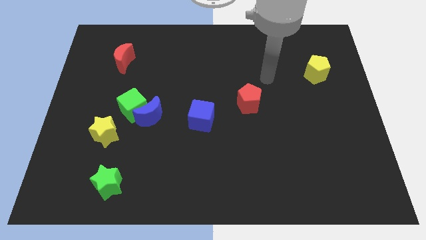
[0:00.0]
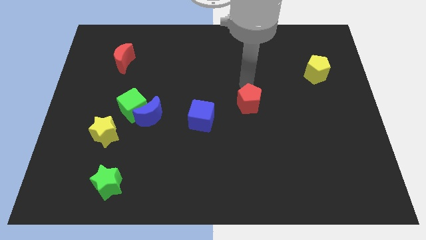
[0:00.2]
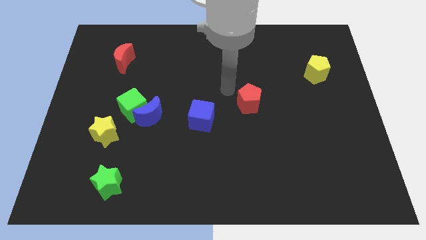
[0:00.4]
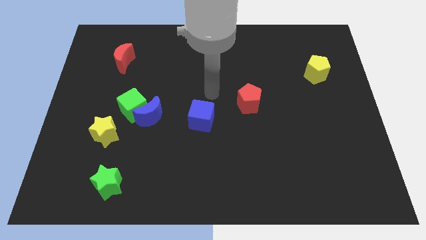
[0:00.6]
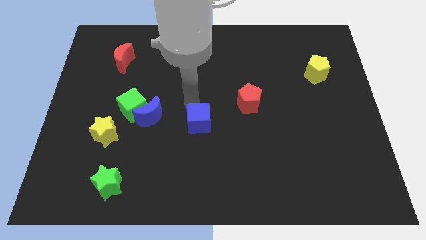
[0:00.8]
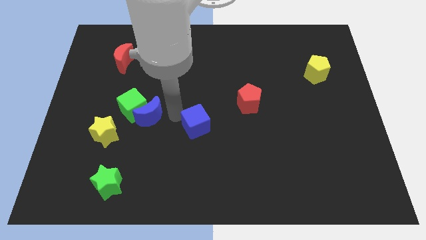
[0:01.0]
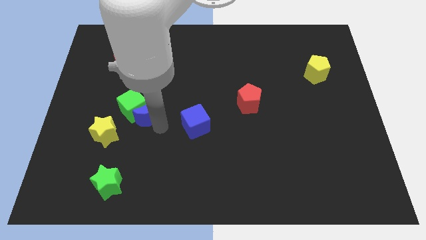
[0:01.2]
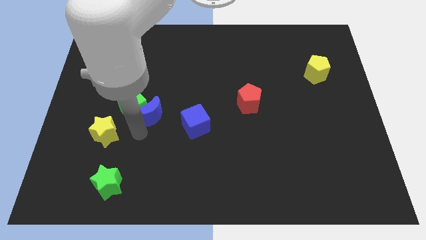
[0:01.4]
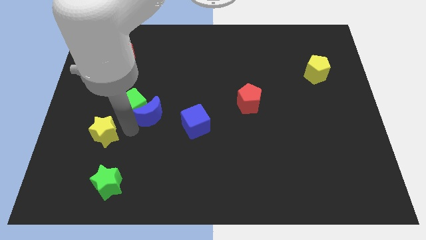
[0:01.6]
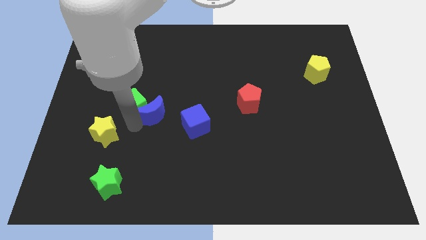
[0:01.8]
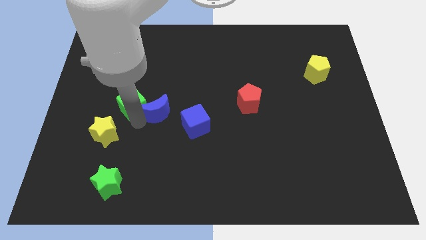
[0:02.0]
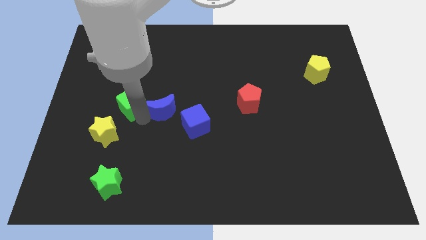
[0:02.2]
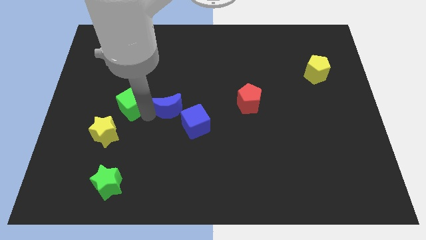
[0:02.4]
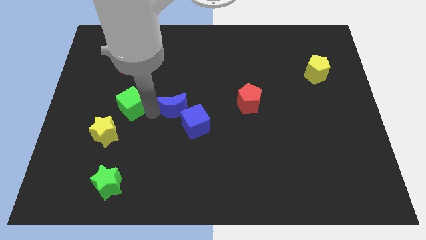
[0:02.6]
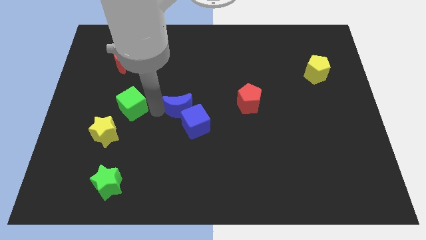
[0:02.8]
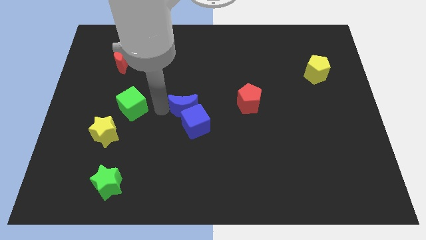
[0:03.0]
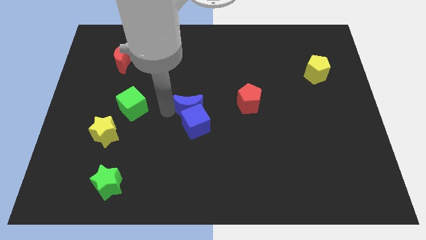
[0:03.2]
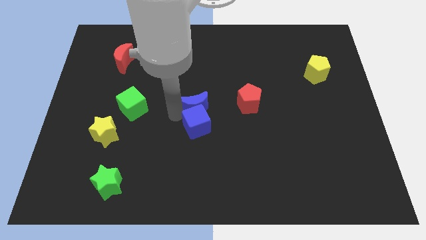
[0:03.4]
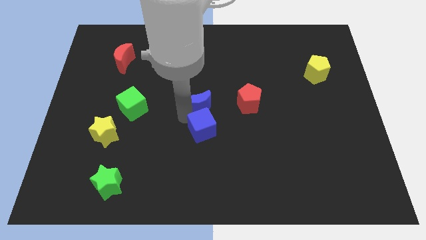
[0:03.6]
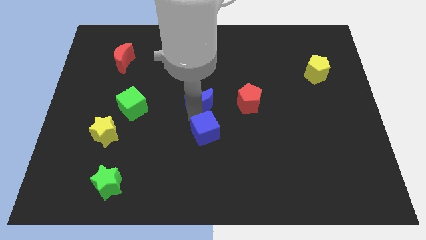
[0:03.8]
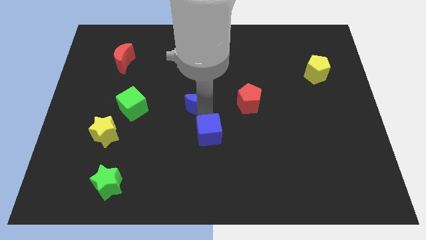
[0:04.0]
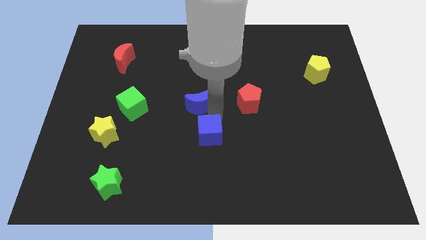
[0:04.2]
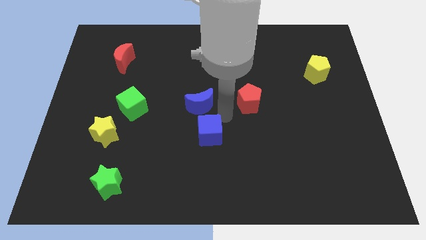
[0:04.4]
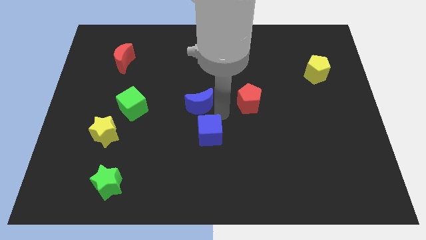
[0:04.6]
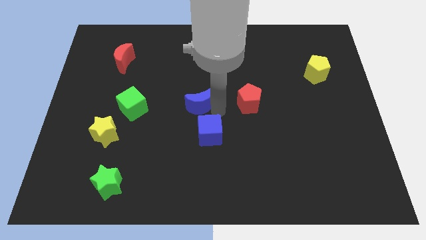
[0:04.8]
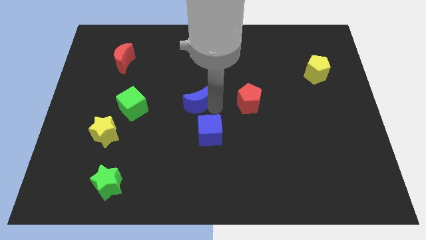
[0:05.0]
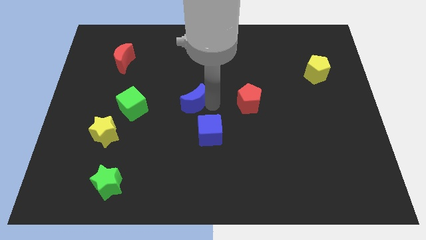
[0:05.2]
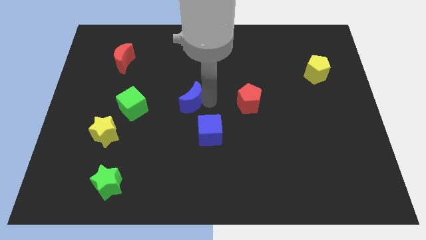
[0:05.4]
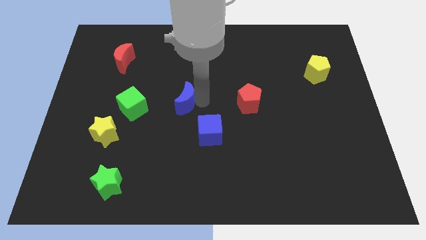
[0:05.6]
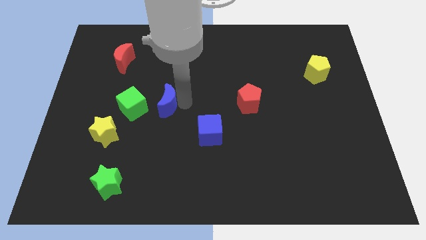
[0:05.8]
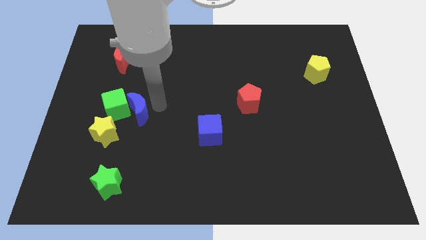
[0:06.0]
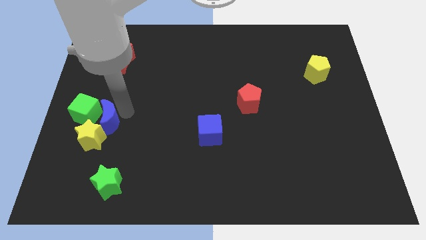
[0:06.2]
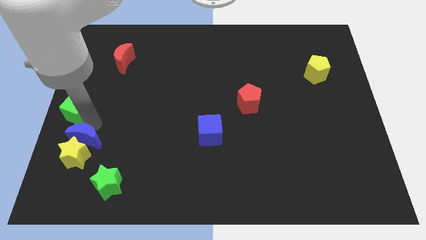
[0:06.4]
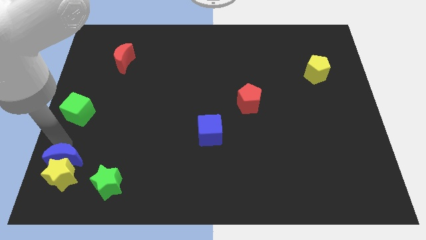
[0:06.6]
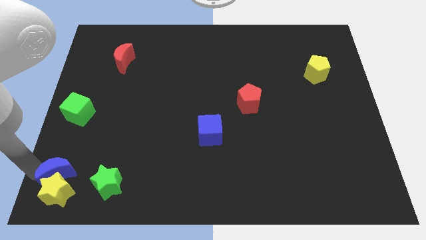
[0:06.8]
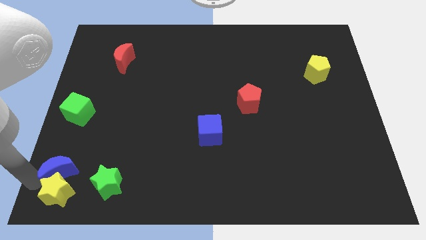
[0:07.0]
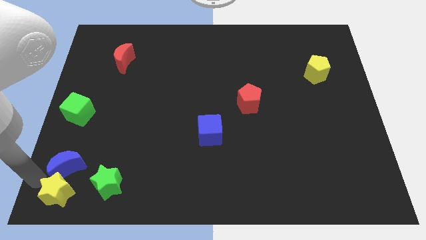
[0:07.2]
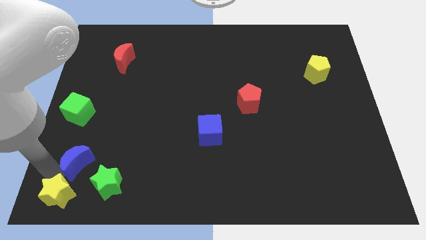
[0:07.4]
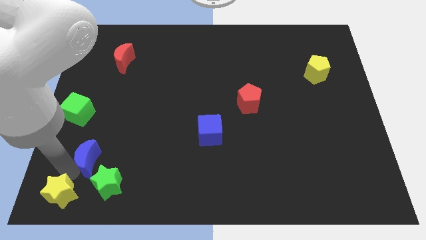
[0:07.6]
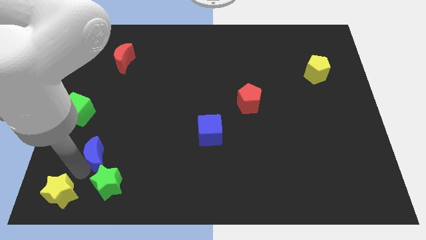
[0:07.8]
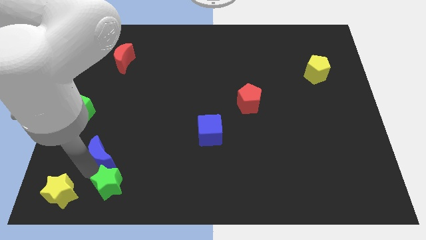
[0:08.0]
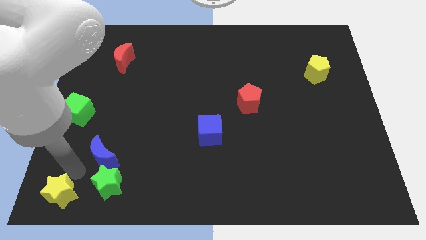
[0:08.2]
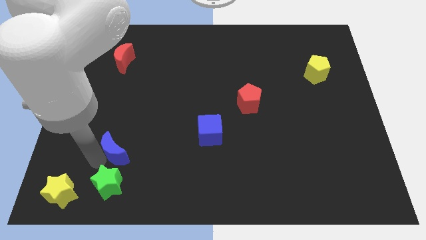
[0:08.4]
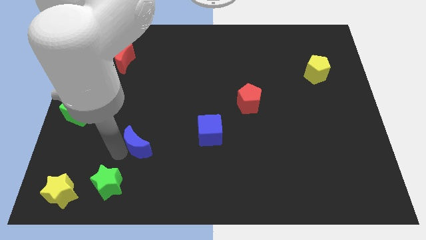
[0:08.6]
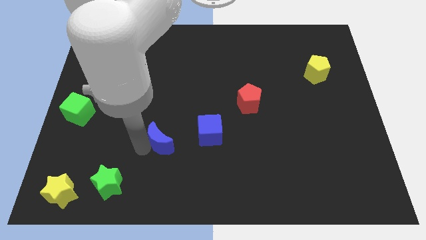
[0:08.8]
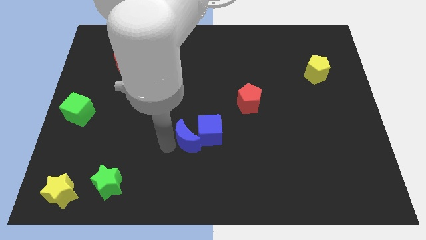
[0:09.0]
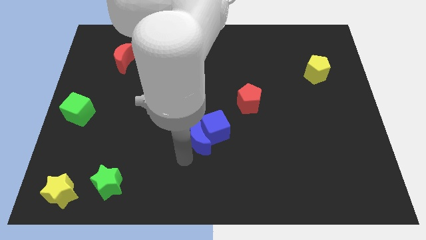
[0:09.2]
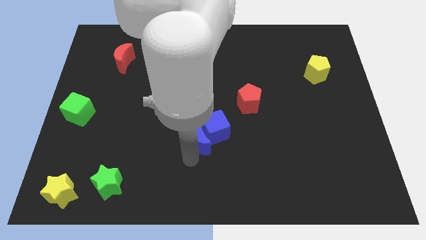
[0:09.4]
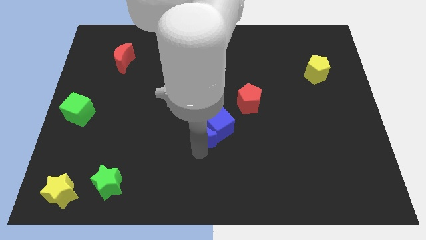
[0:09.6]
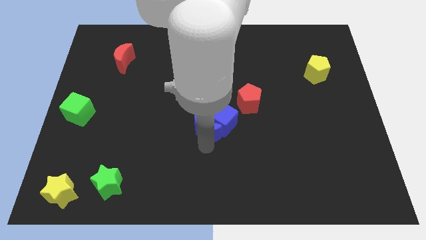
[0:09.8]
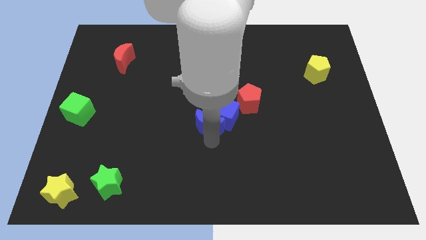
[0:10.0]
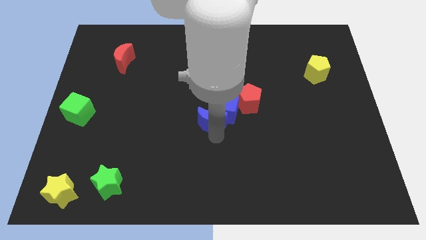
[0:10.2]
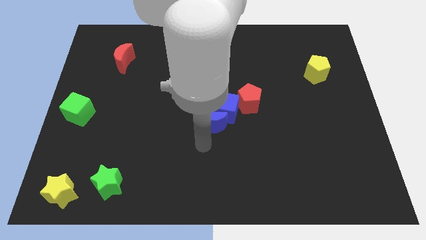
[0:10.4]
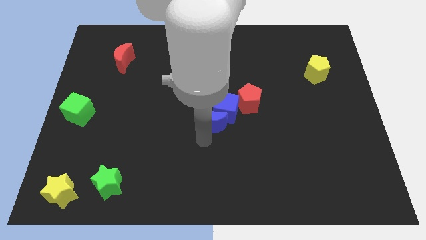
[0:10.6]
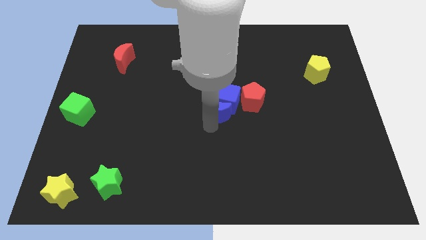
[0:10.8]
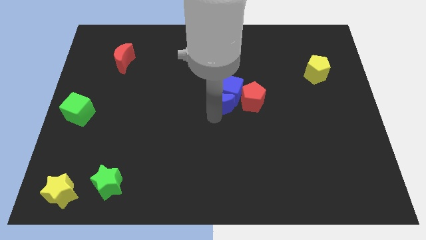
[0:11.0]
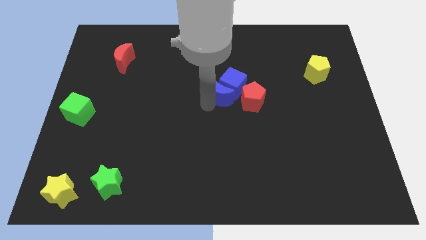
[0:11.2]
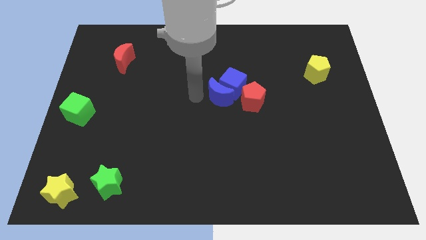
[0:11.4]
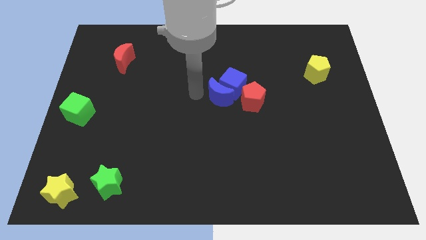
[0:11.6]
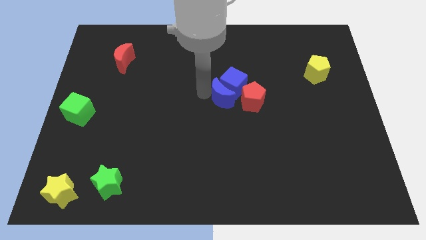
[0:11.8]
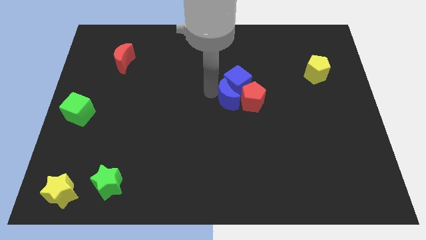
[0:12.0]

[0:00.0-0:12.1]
push the blue moon next to the red pentagon

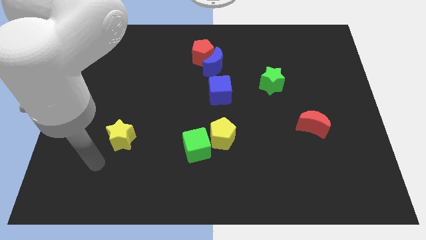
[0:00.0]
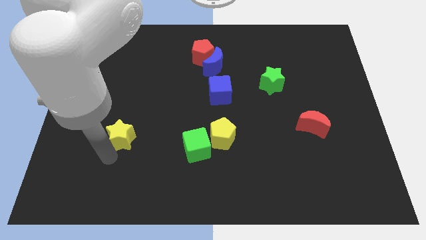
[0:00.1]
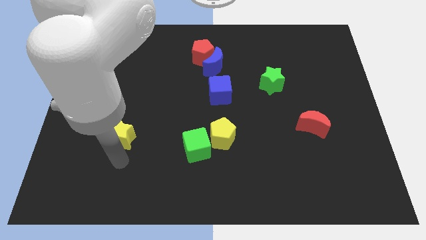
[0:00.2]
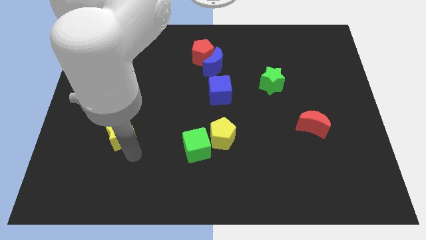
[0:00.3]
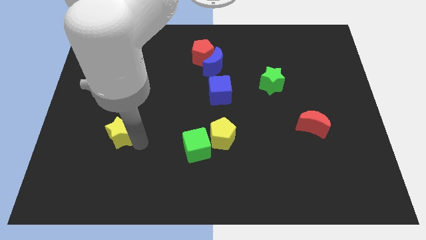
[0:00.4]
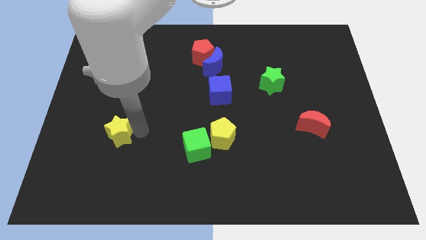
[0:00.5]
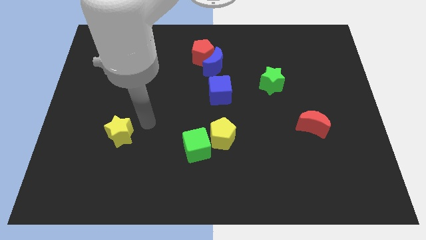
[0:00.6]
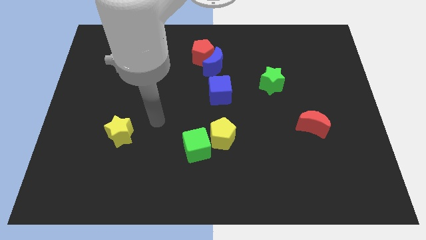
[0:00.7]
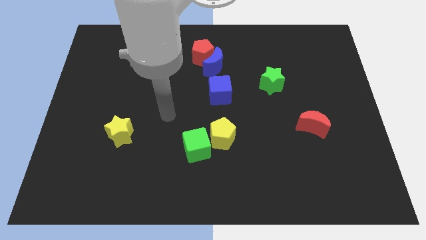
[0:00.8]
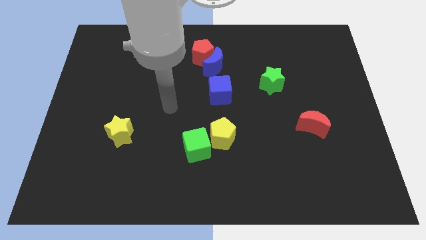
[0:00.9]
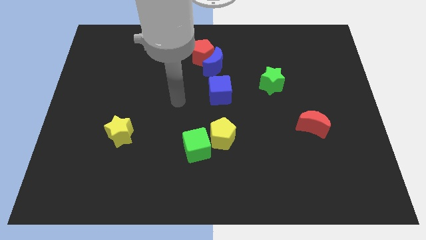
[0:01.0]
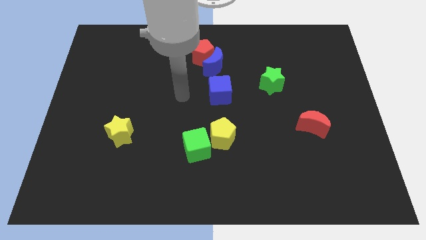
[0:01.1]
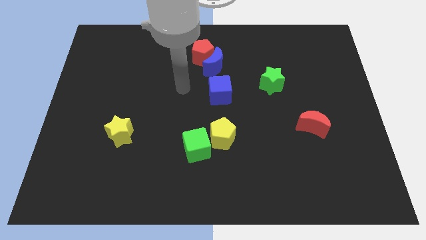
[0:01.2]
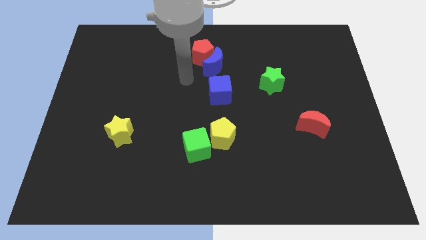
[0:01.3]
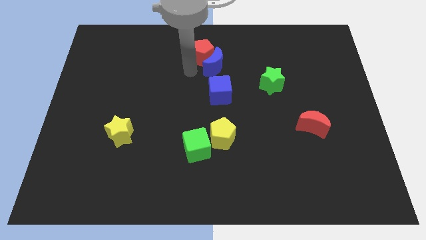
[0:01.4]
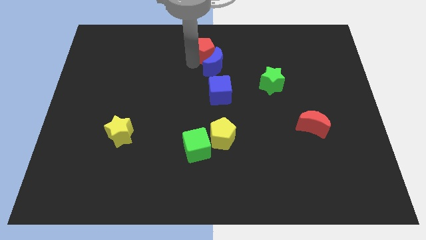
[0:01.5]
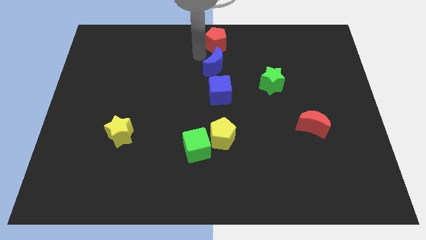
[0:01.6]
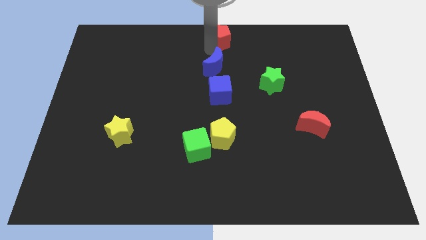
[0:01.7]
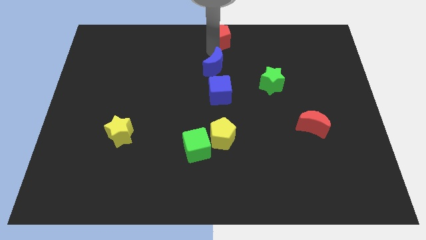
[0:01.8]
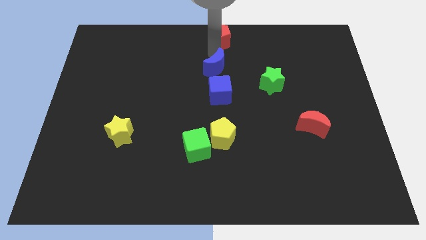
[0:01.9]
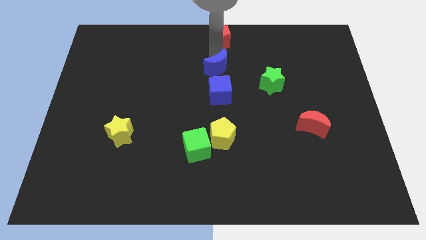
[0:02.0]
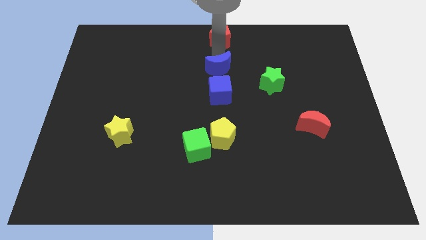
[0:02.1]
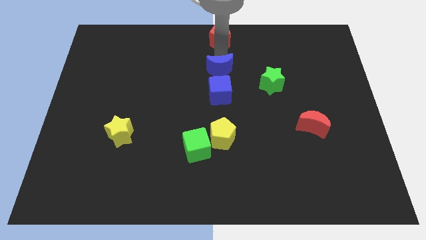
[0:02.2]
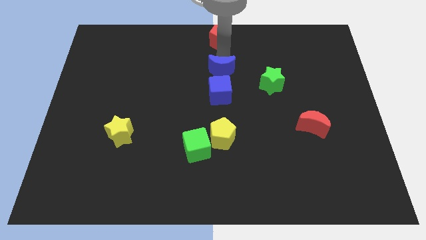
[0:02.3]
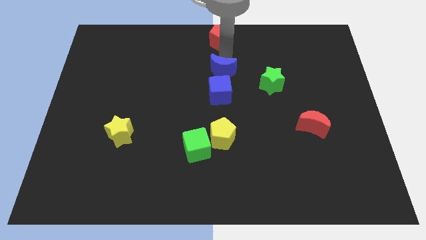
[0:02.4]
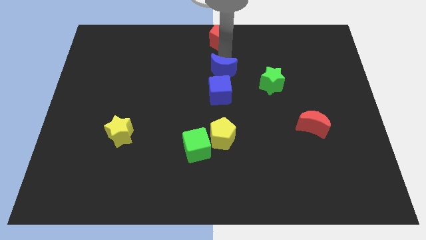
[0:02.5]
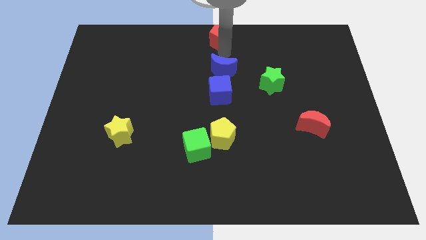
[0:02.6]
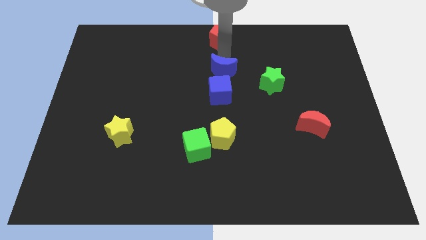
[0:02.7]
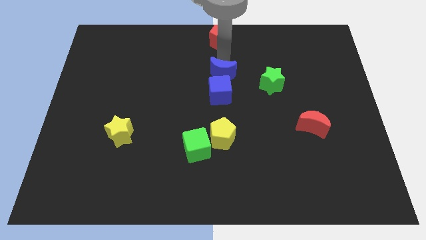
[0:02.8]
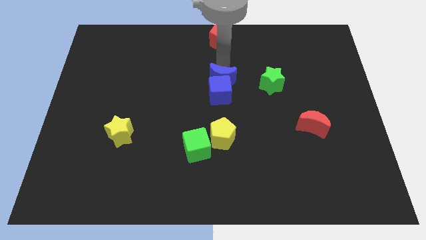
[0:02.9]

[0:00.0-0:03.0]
put the blue moon next to the blue cube
